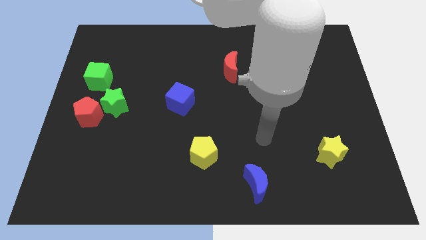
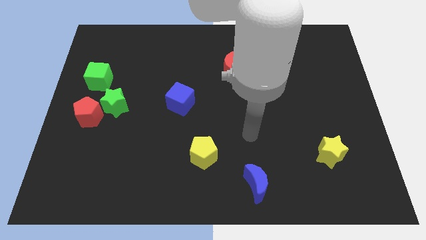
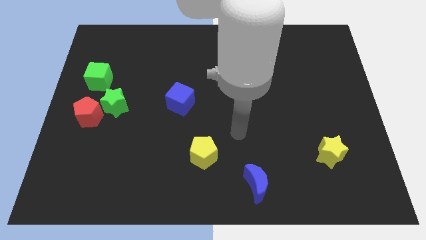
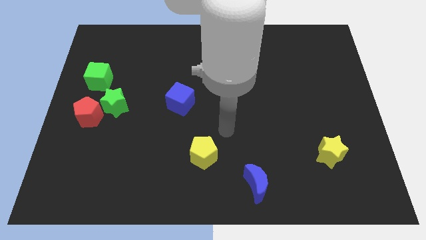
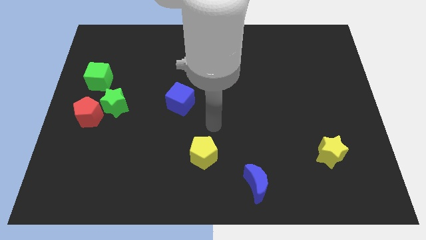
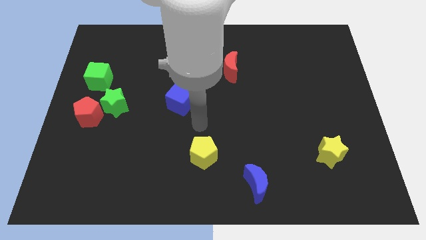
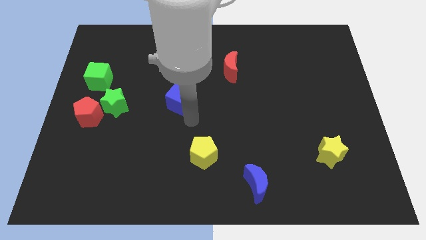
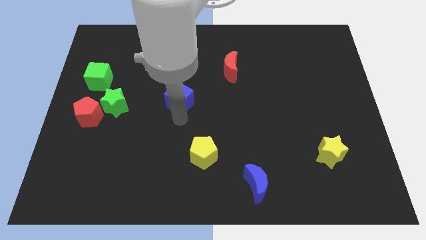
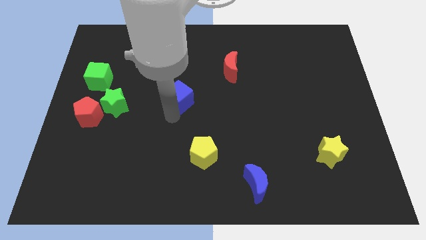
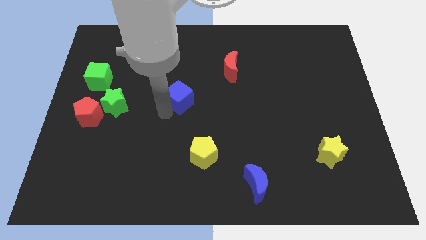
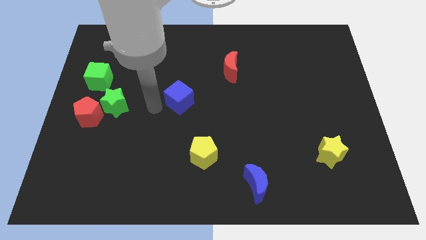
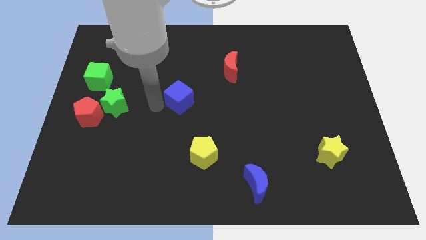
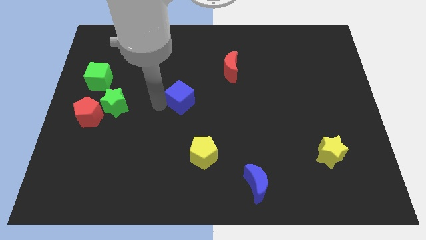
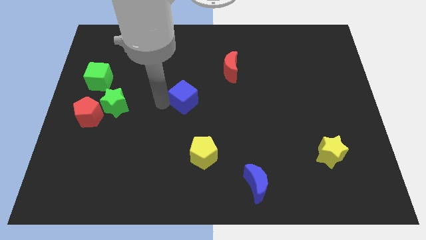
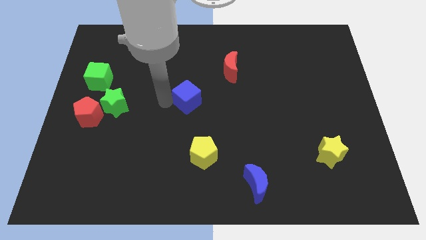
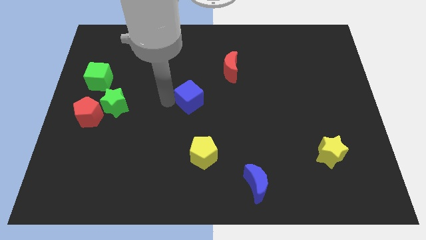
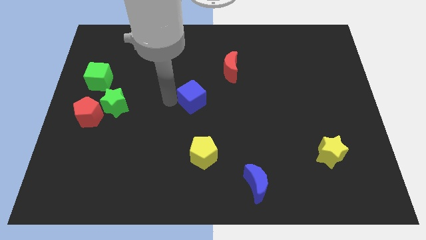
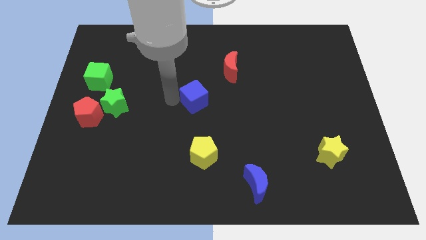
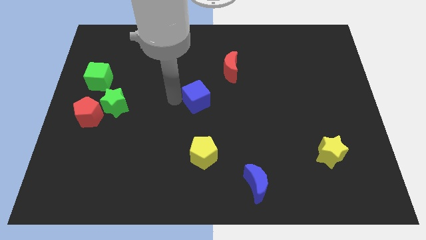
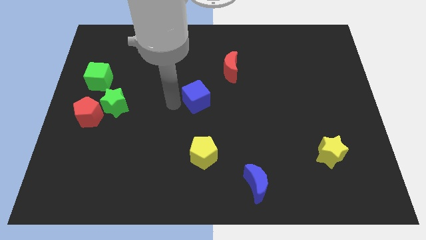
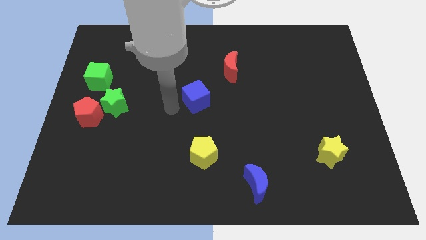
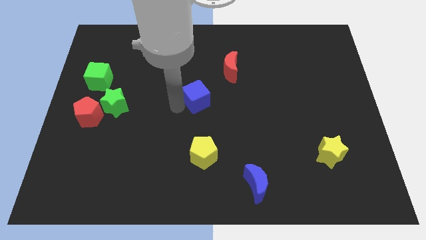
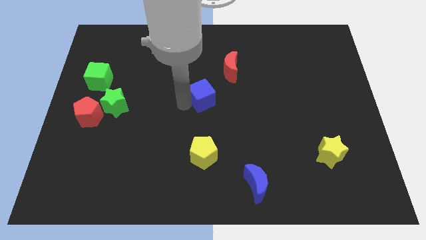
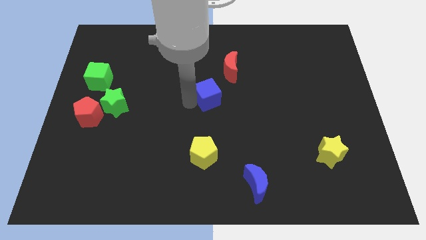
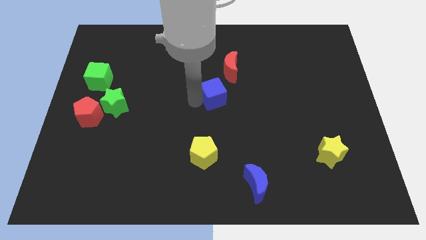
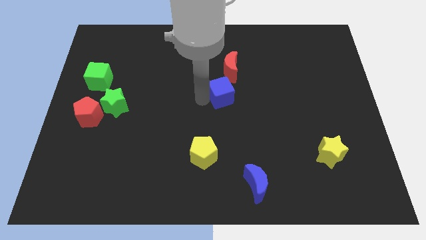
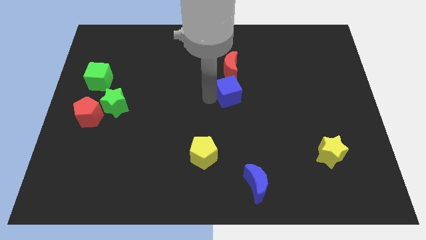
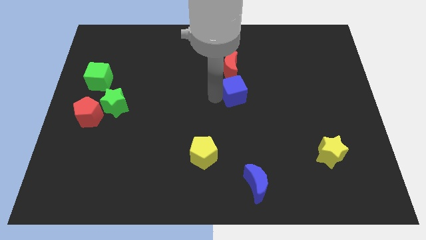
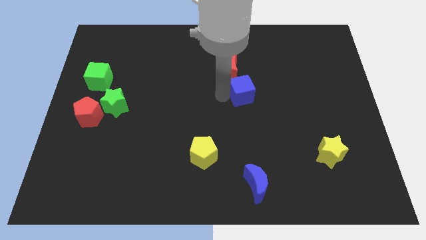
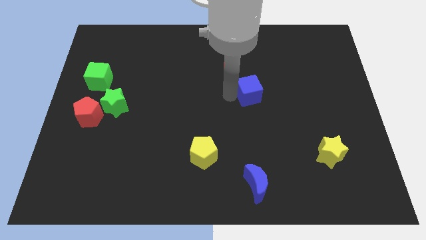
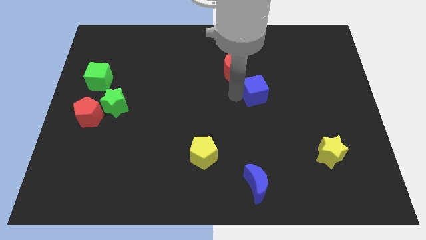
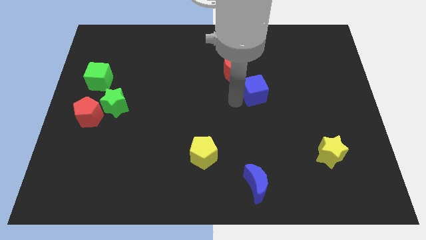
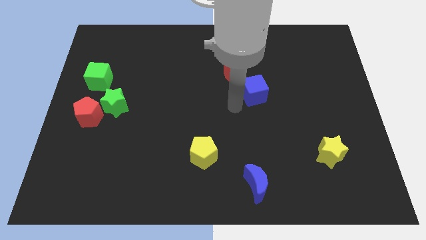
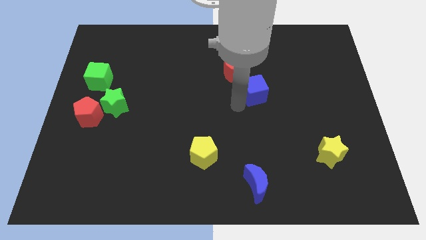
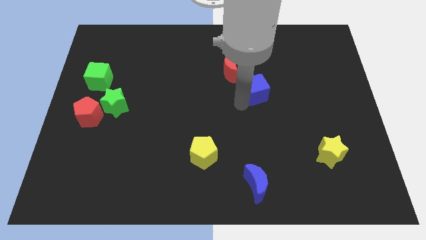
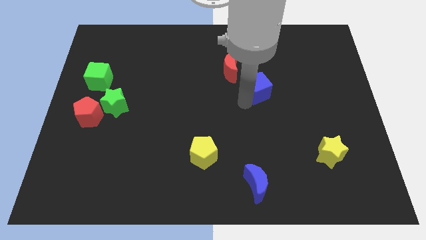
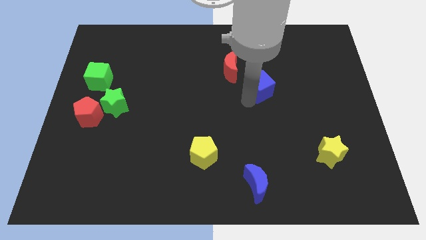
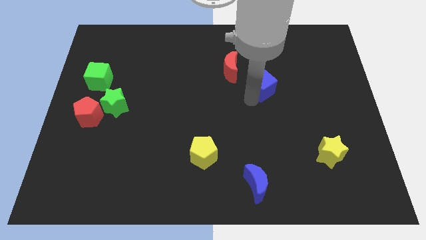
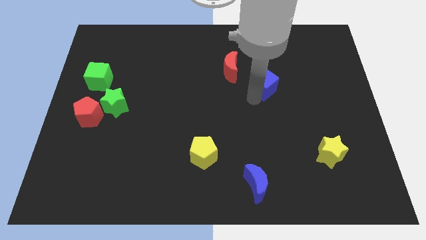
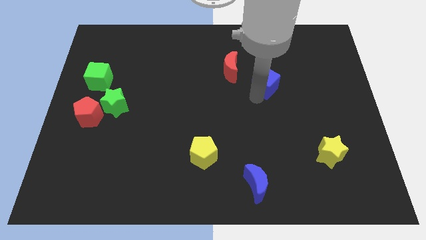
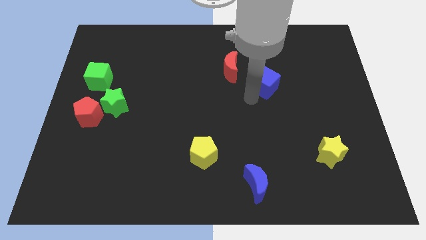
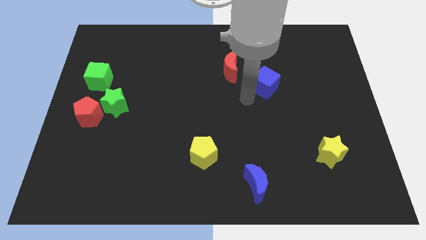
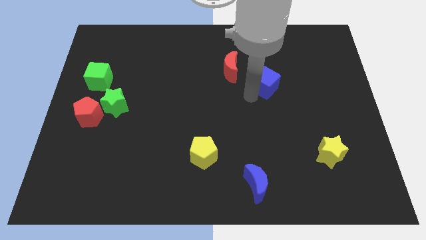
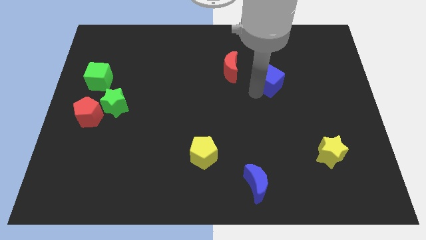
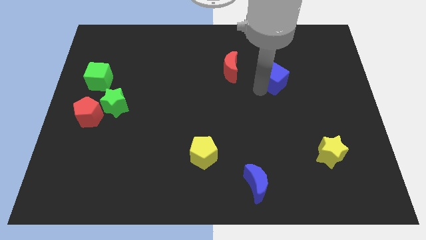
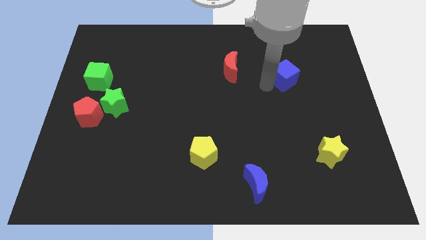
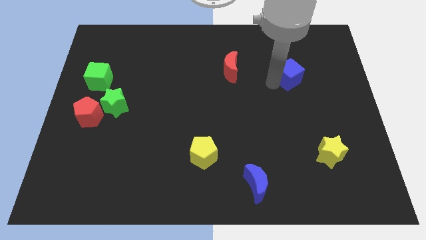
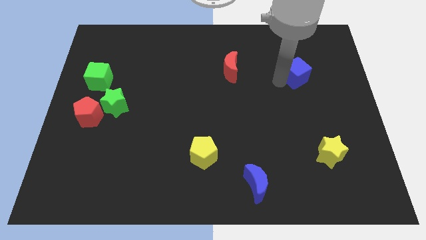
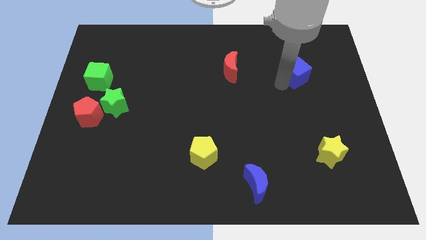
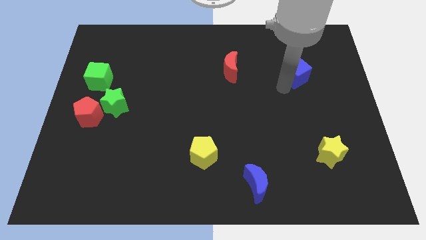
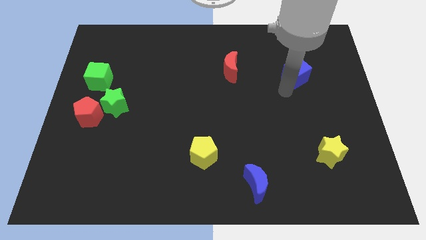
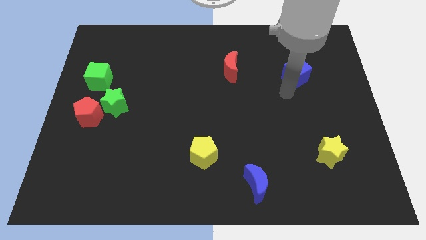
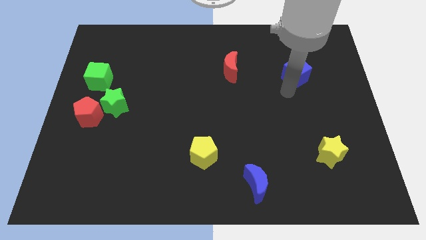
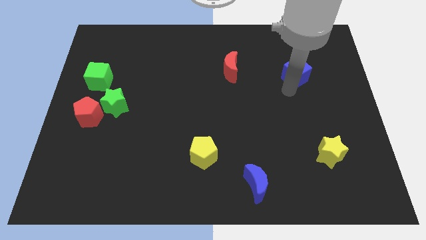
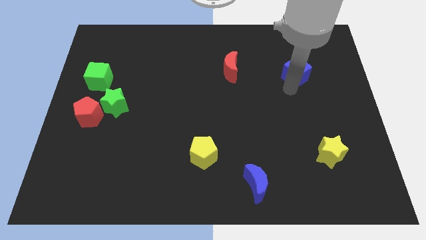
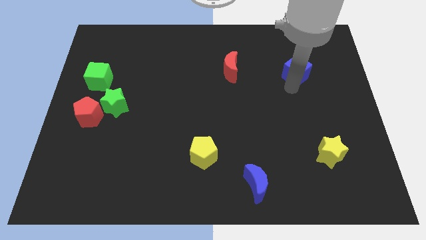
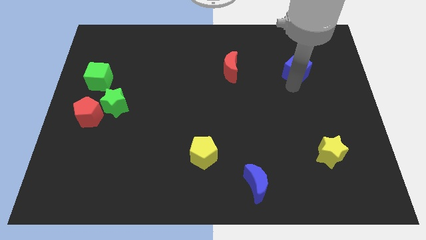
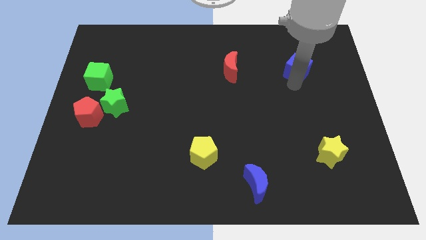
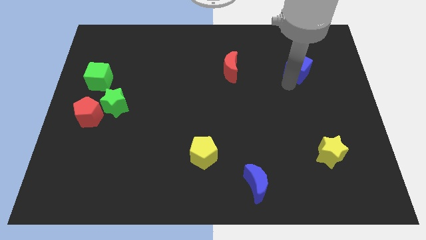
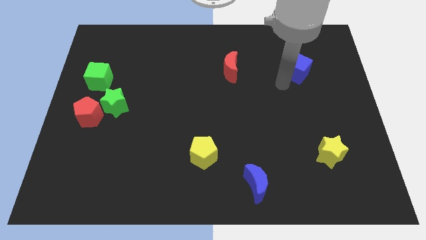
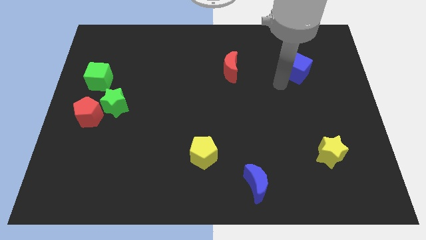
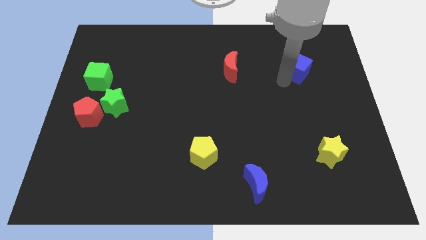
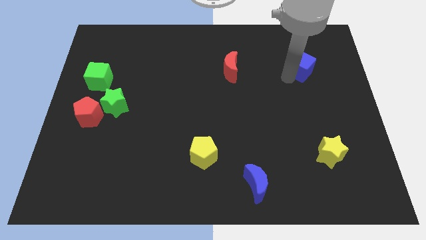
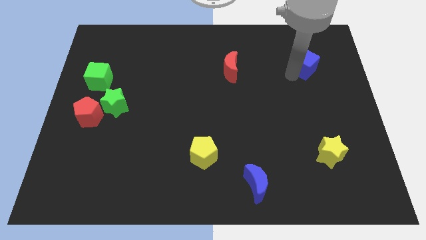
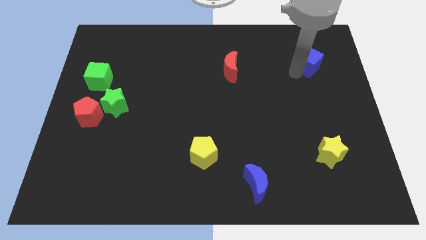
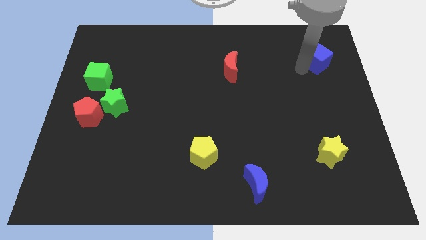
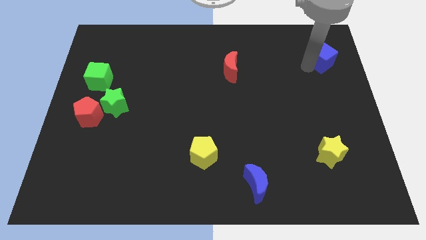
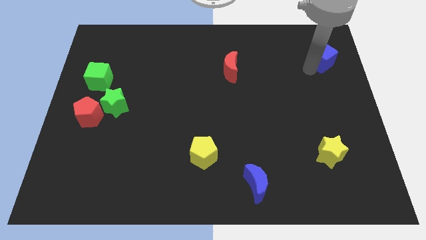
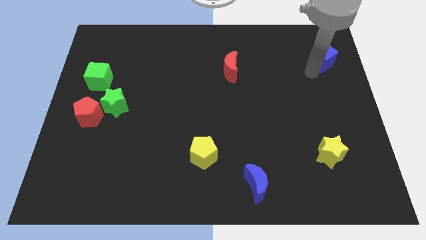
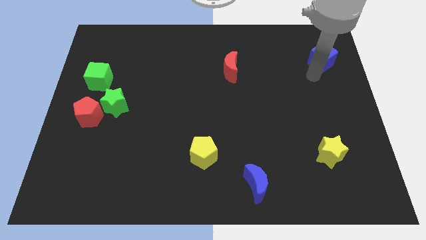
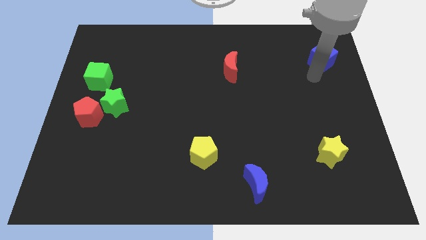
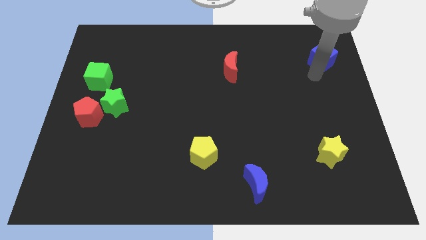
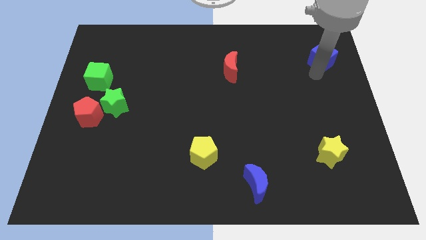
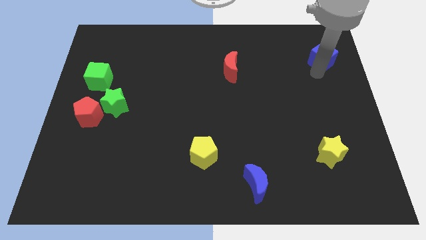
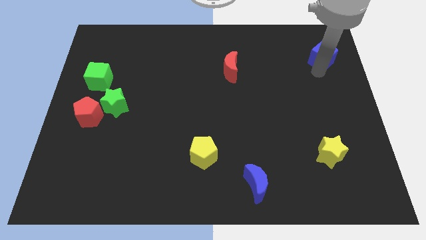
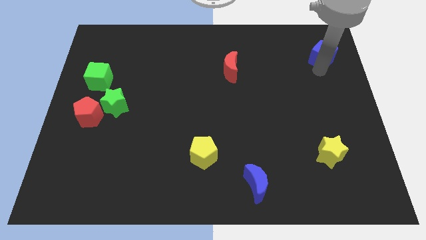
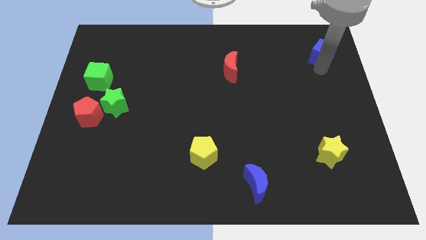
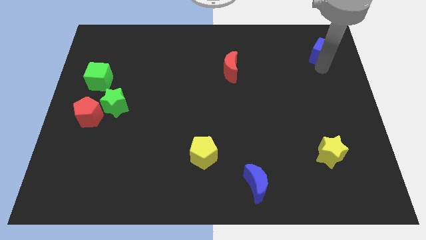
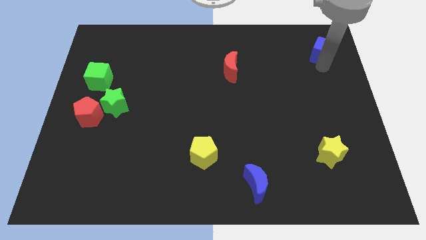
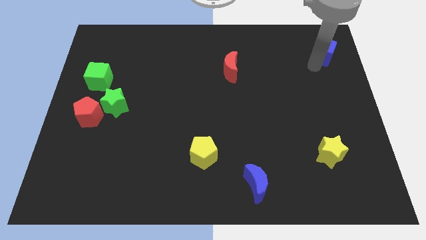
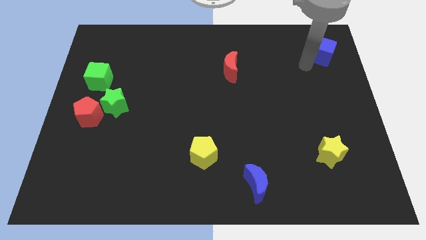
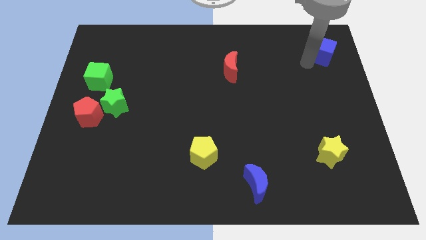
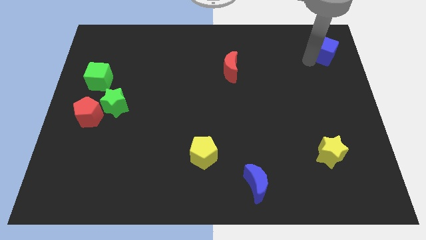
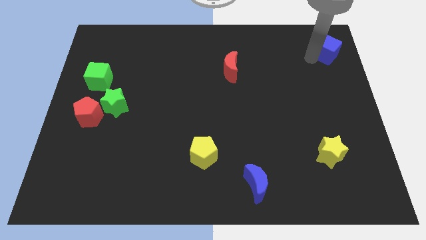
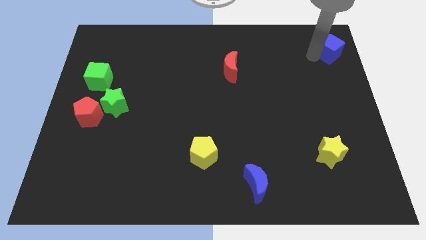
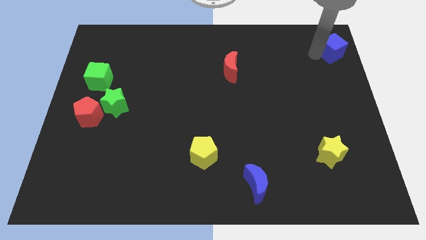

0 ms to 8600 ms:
put the blue cube to the top right
